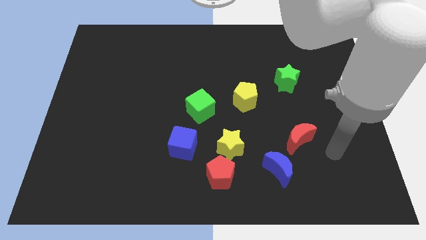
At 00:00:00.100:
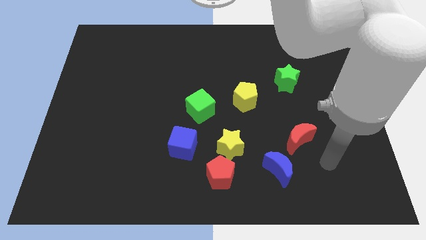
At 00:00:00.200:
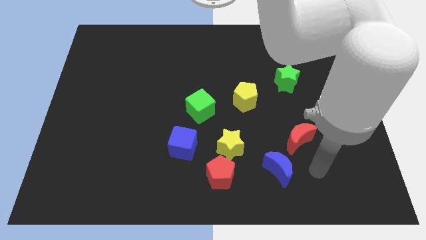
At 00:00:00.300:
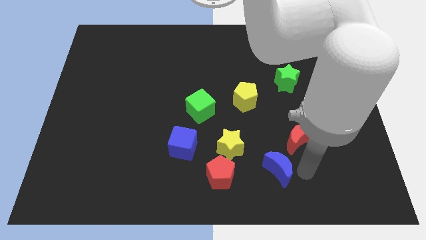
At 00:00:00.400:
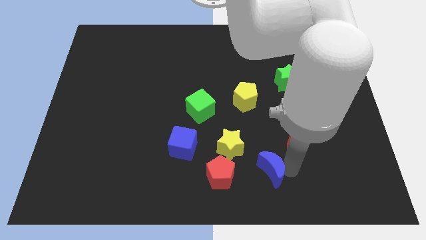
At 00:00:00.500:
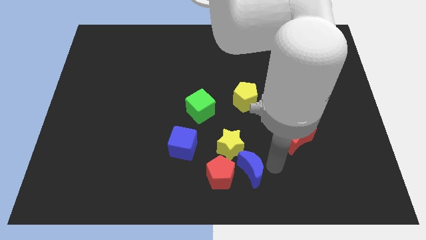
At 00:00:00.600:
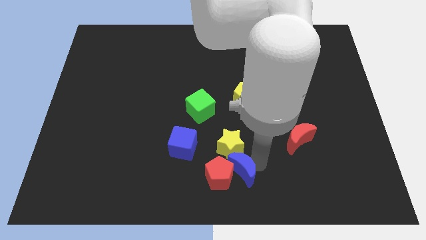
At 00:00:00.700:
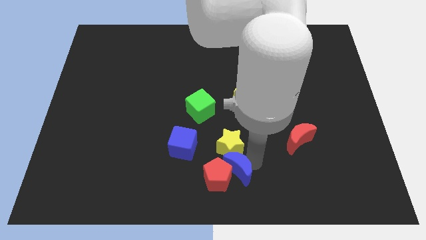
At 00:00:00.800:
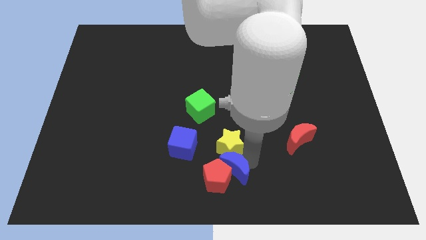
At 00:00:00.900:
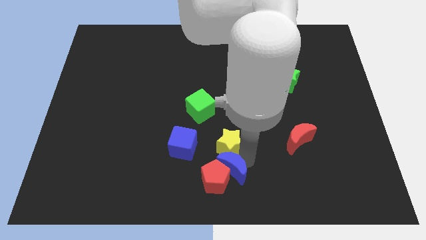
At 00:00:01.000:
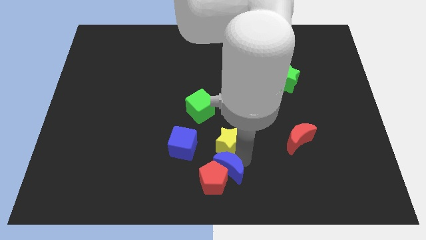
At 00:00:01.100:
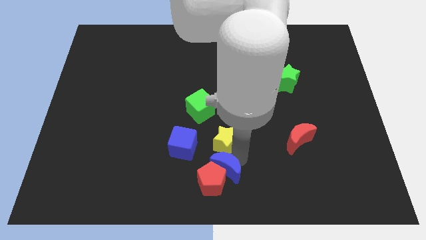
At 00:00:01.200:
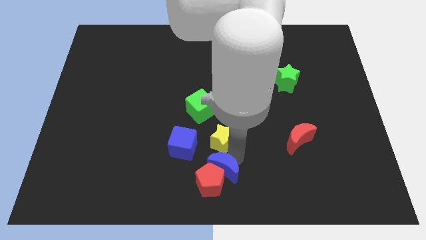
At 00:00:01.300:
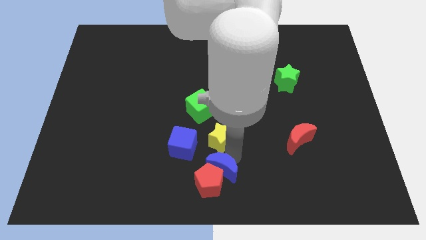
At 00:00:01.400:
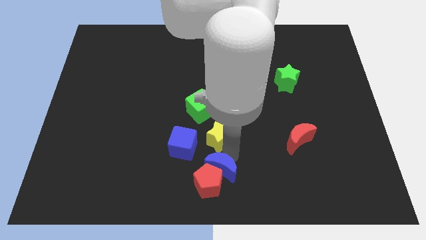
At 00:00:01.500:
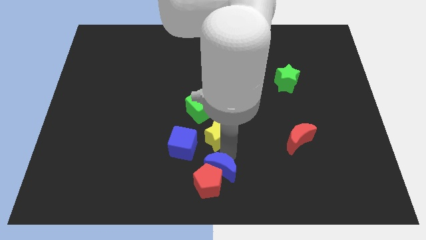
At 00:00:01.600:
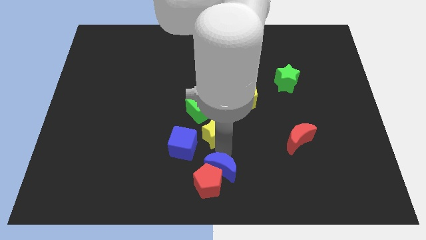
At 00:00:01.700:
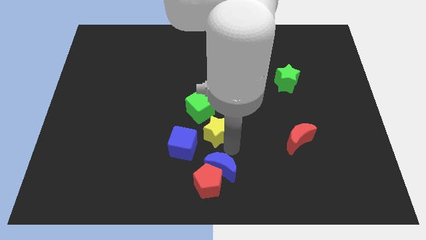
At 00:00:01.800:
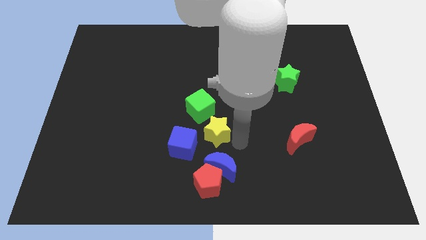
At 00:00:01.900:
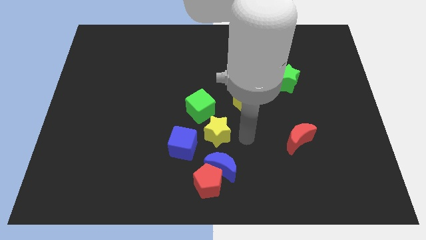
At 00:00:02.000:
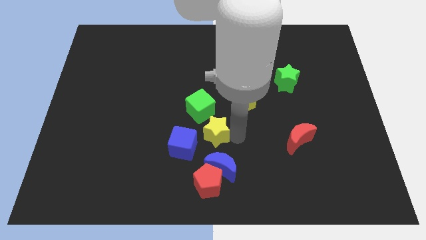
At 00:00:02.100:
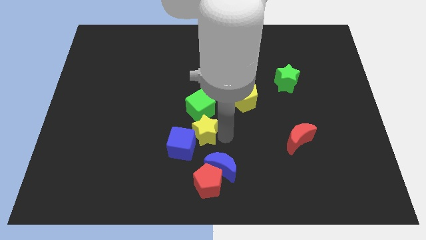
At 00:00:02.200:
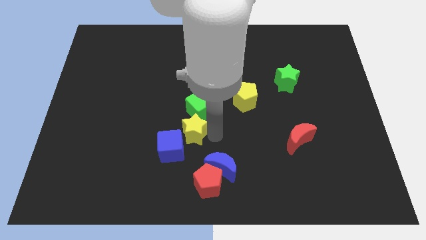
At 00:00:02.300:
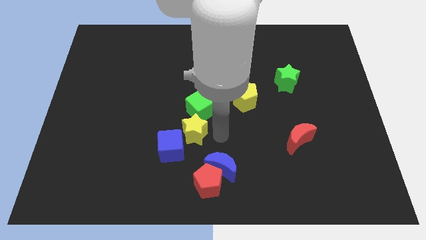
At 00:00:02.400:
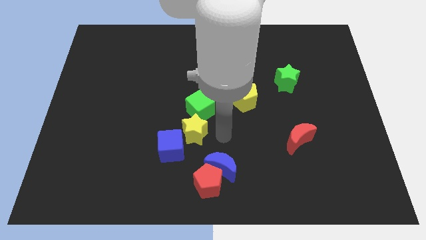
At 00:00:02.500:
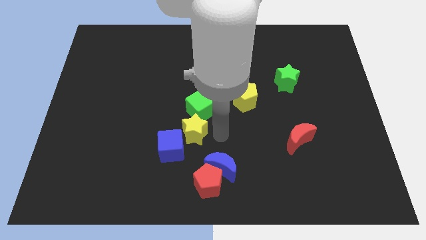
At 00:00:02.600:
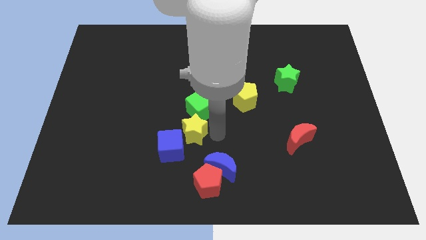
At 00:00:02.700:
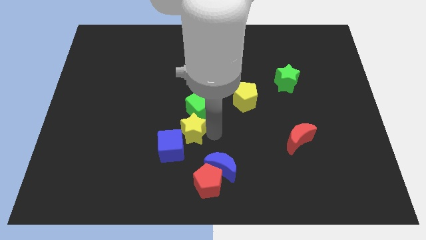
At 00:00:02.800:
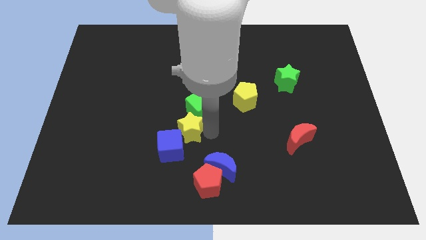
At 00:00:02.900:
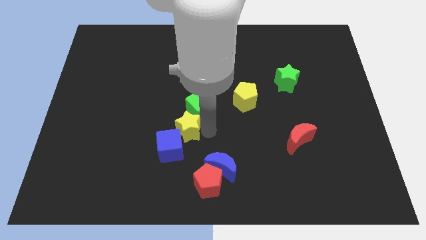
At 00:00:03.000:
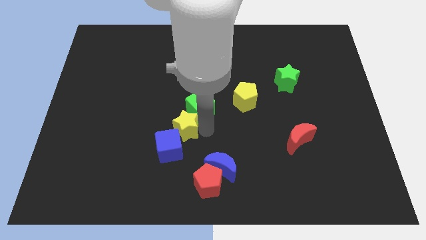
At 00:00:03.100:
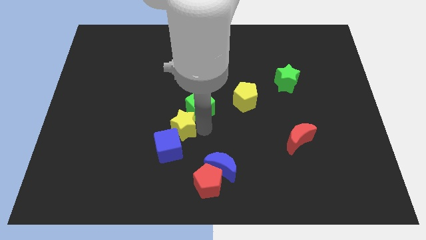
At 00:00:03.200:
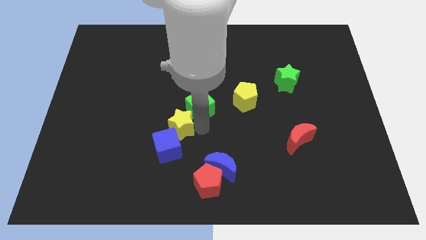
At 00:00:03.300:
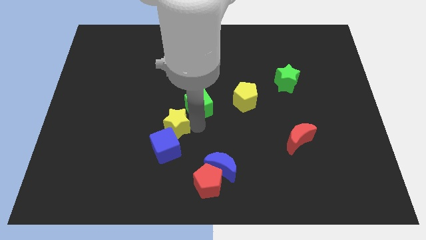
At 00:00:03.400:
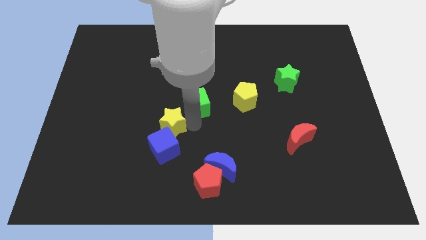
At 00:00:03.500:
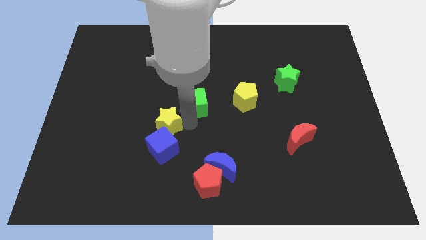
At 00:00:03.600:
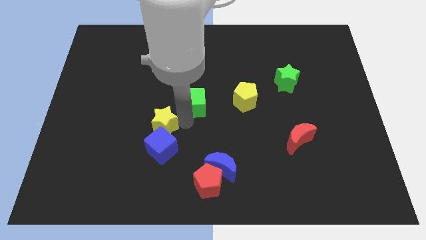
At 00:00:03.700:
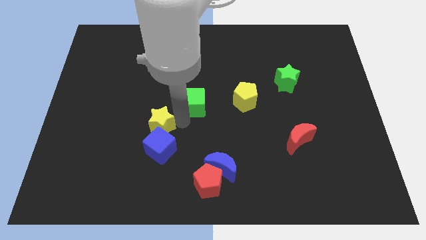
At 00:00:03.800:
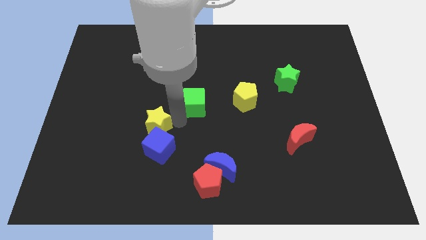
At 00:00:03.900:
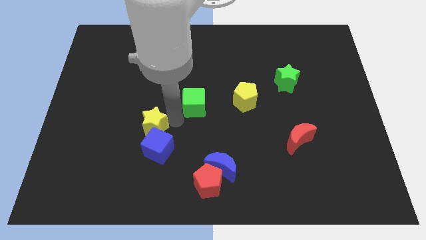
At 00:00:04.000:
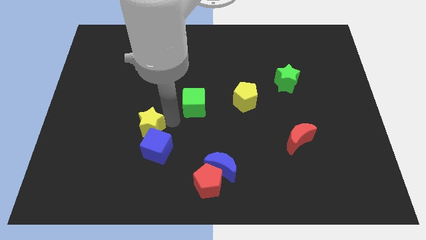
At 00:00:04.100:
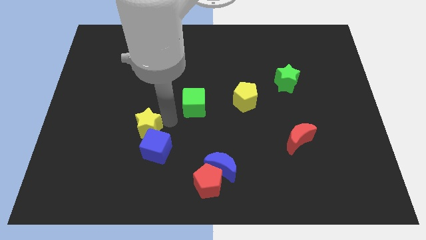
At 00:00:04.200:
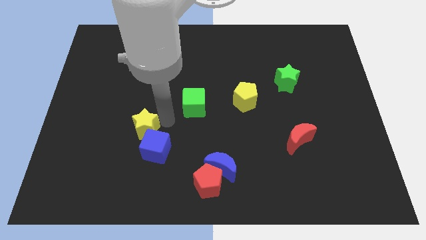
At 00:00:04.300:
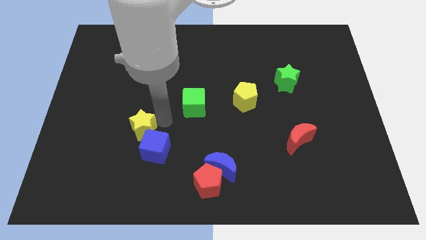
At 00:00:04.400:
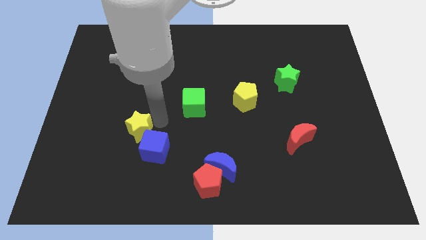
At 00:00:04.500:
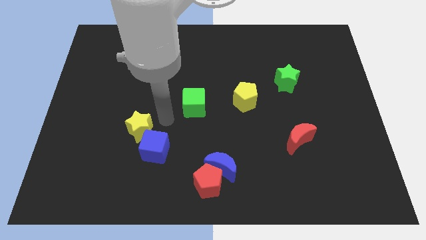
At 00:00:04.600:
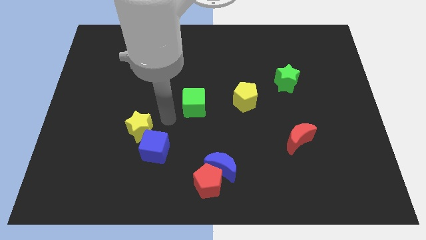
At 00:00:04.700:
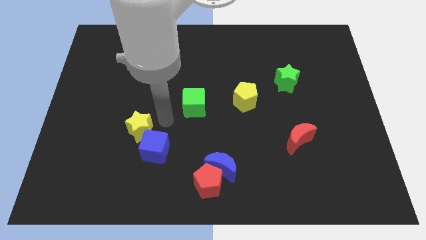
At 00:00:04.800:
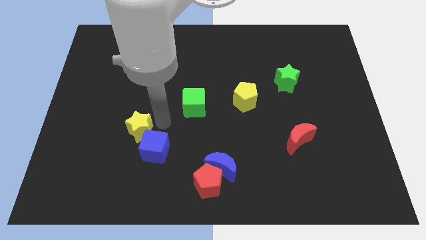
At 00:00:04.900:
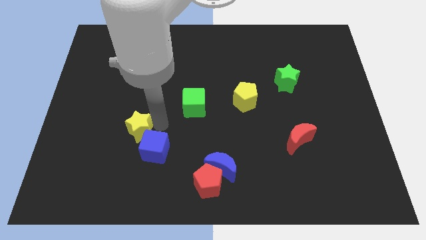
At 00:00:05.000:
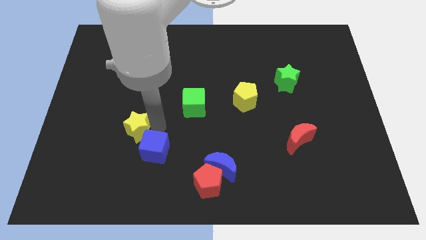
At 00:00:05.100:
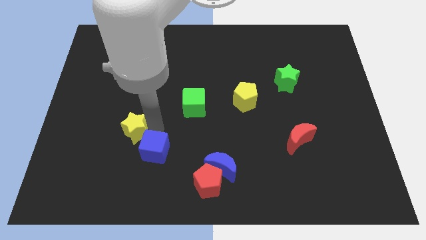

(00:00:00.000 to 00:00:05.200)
move the yellow star left

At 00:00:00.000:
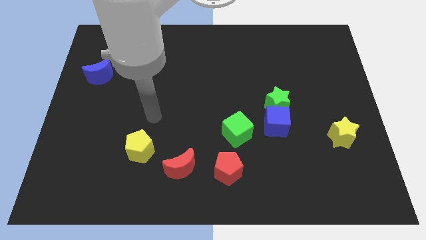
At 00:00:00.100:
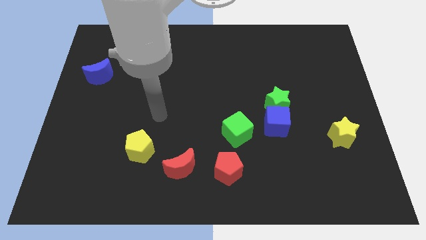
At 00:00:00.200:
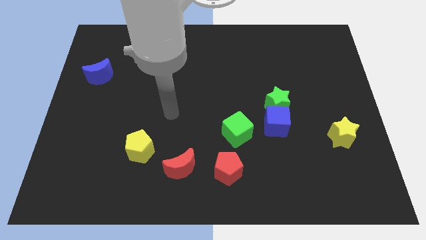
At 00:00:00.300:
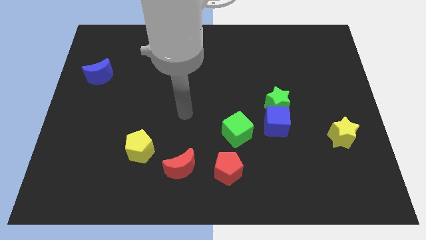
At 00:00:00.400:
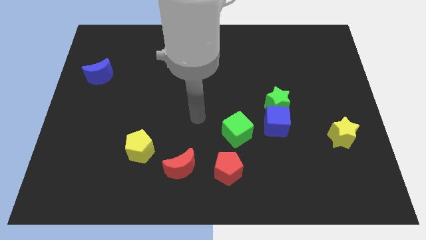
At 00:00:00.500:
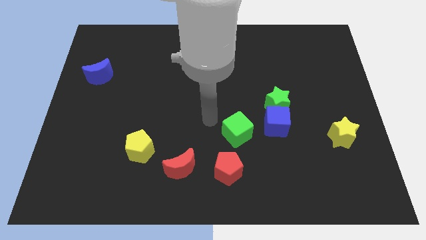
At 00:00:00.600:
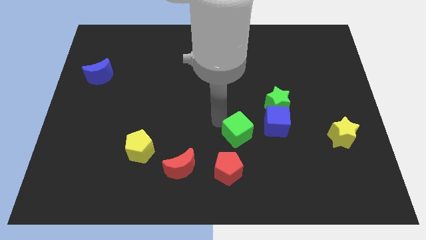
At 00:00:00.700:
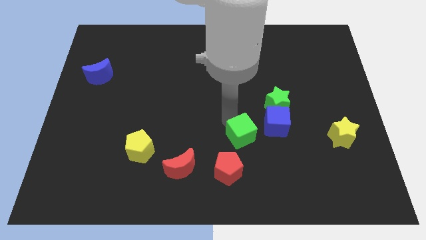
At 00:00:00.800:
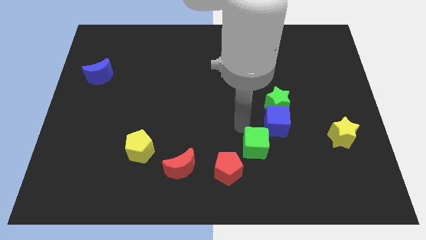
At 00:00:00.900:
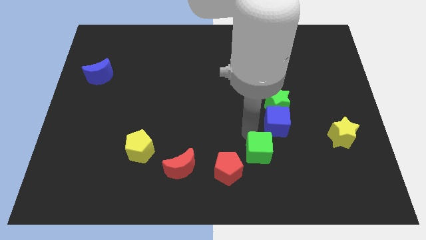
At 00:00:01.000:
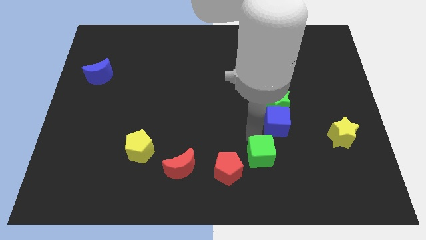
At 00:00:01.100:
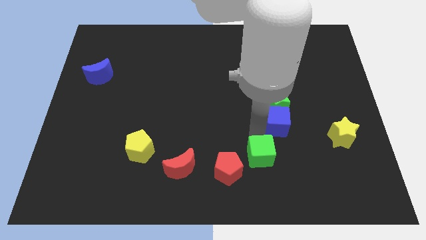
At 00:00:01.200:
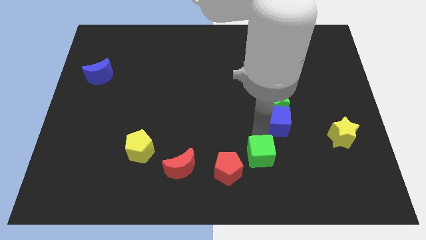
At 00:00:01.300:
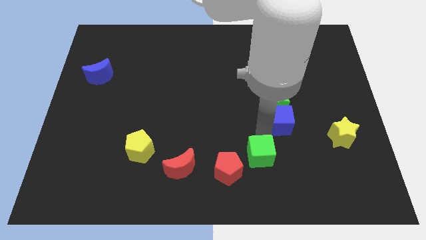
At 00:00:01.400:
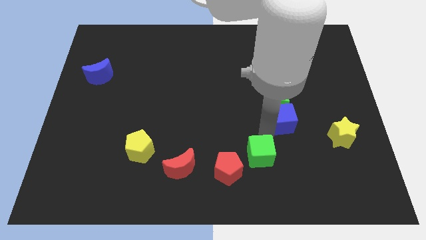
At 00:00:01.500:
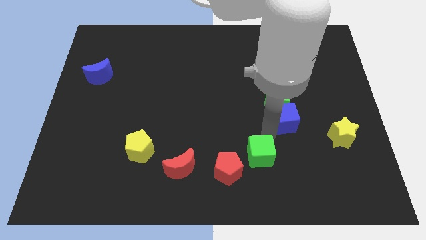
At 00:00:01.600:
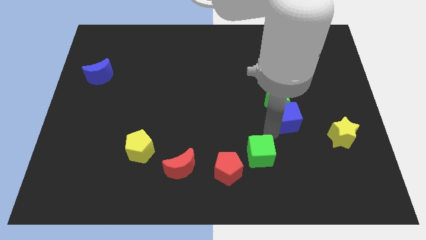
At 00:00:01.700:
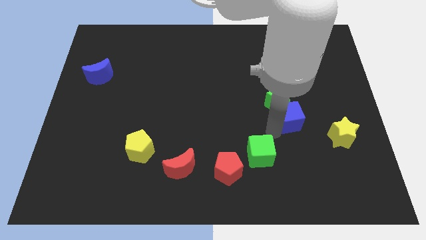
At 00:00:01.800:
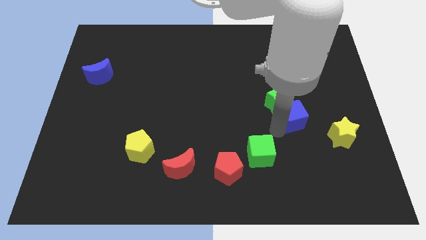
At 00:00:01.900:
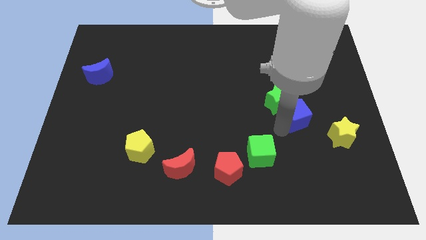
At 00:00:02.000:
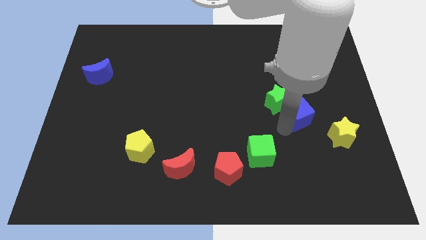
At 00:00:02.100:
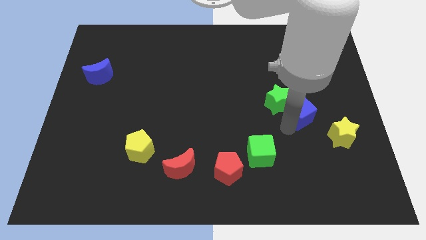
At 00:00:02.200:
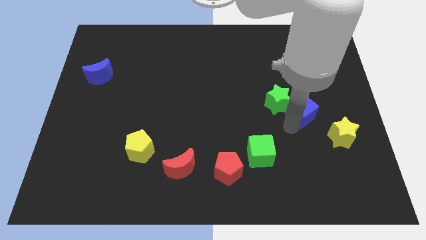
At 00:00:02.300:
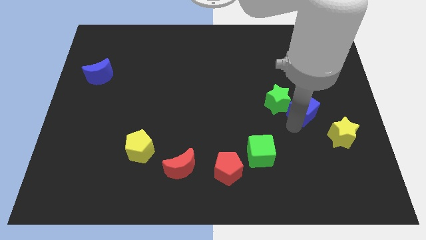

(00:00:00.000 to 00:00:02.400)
move the blue cube a bit upwards and then right

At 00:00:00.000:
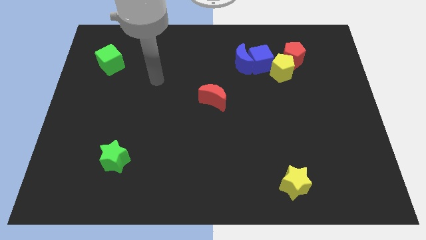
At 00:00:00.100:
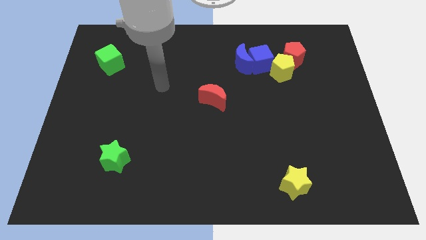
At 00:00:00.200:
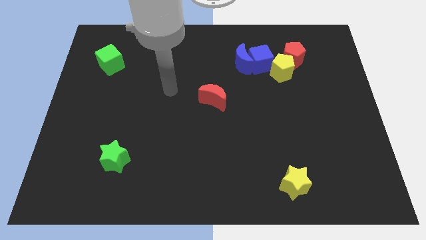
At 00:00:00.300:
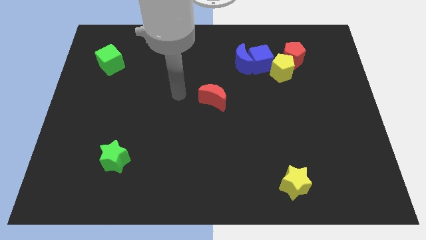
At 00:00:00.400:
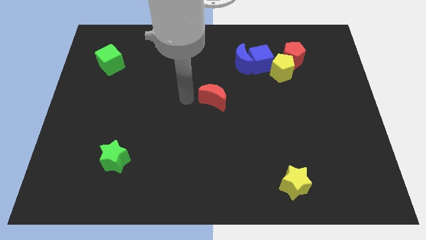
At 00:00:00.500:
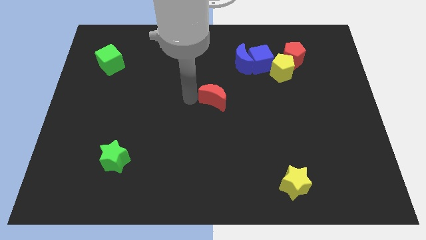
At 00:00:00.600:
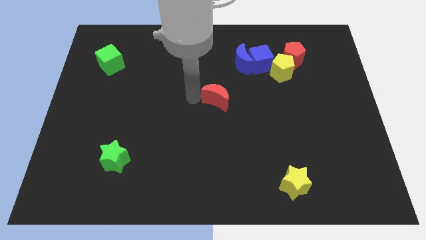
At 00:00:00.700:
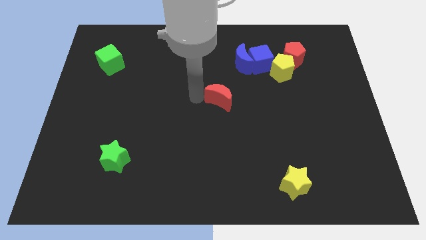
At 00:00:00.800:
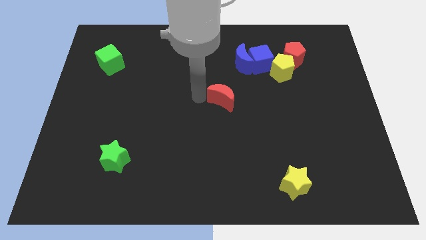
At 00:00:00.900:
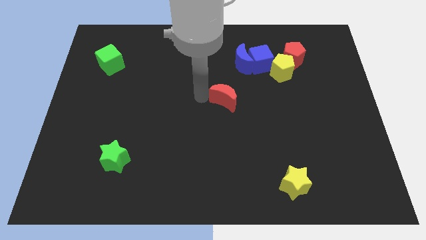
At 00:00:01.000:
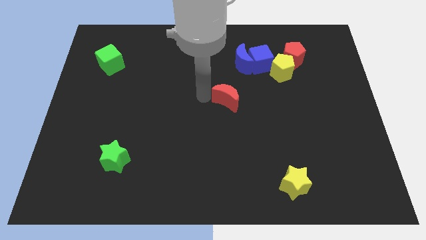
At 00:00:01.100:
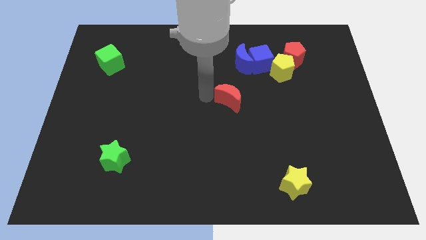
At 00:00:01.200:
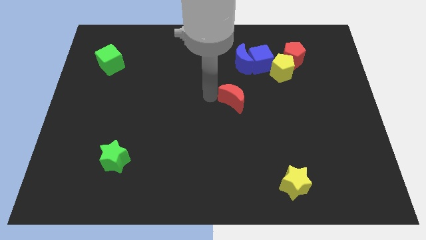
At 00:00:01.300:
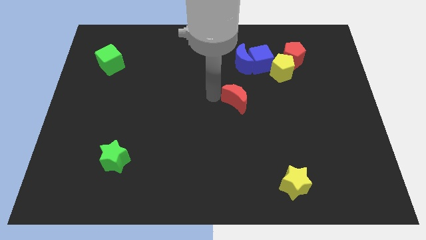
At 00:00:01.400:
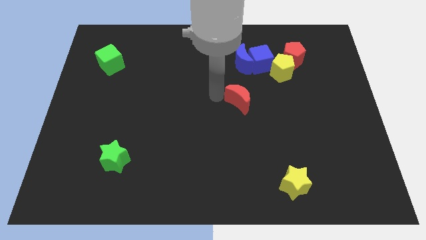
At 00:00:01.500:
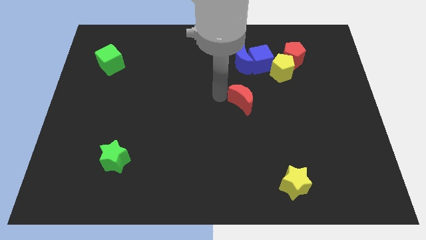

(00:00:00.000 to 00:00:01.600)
move the red moon slightly right
